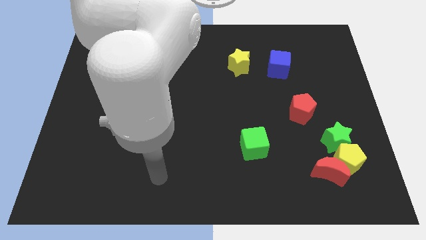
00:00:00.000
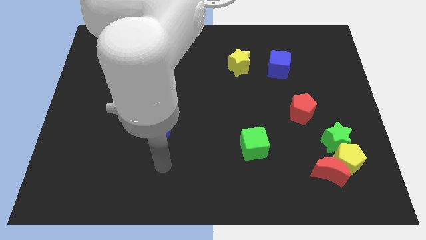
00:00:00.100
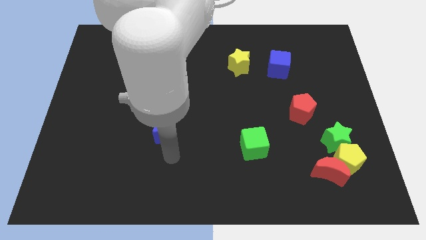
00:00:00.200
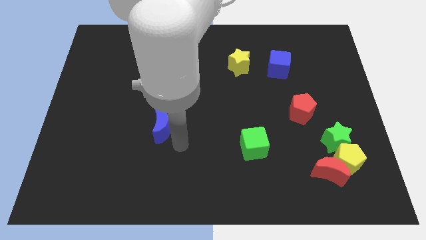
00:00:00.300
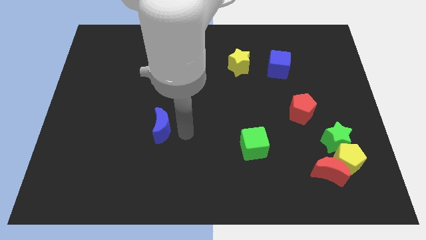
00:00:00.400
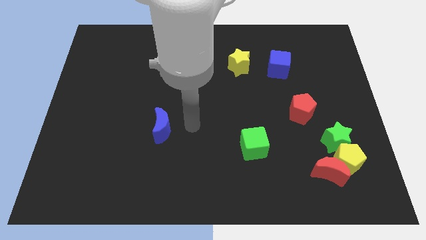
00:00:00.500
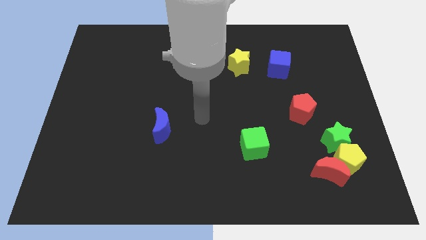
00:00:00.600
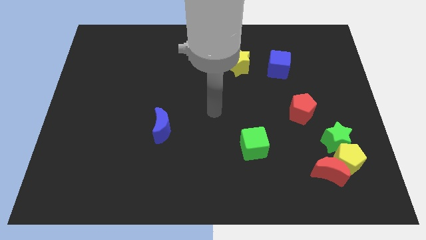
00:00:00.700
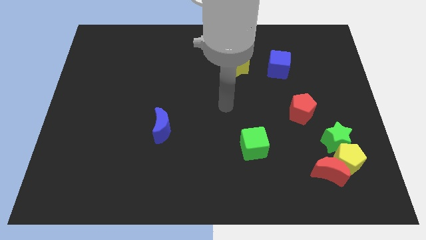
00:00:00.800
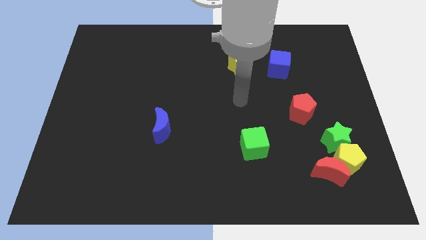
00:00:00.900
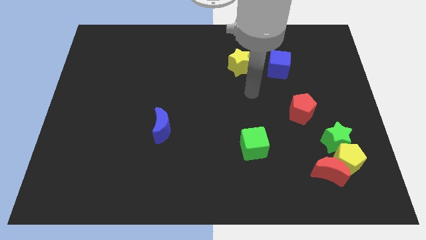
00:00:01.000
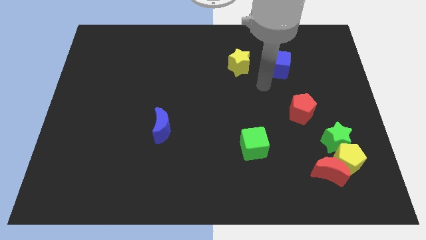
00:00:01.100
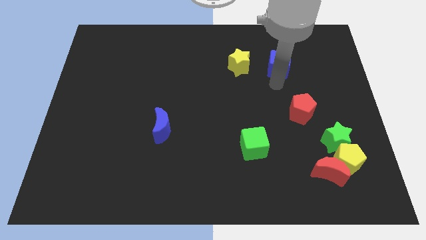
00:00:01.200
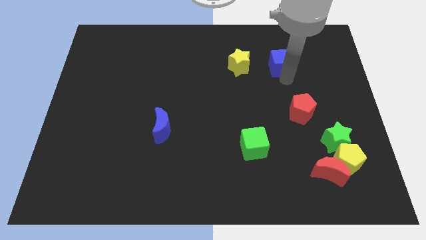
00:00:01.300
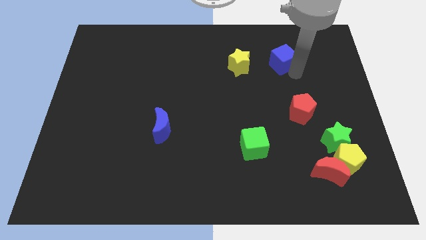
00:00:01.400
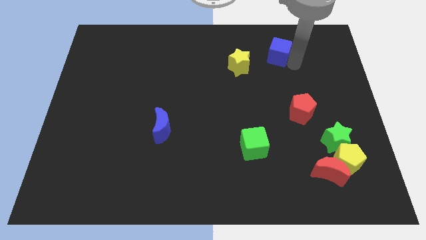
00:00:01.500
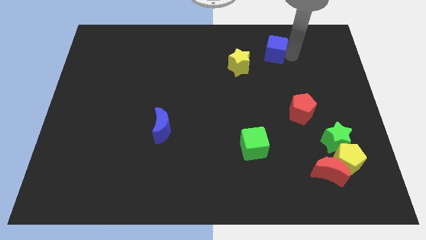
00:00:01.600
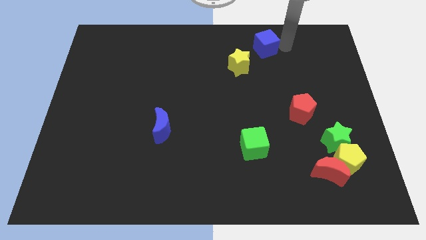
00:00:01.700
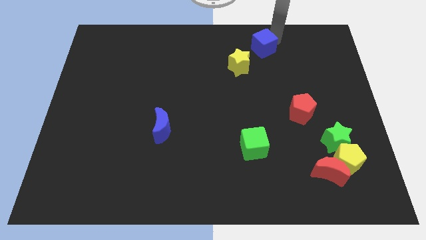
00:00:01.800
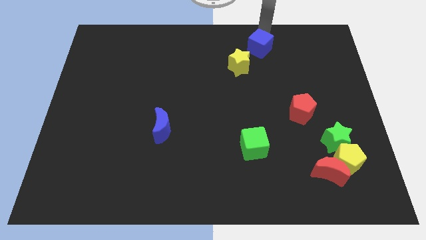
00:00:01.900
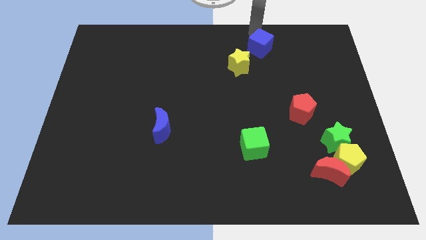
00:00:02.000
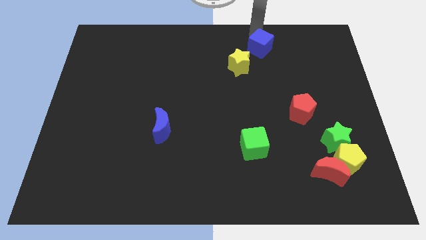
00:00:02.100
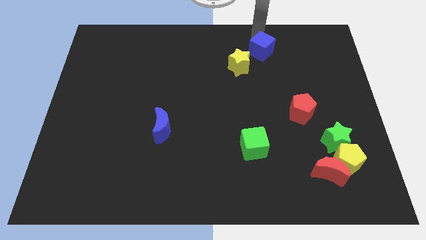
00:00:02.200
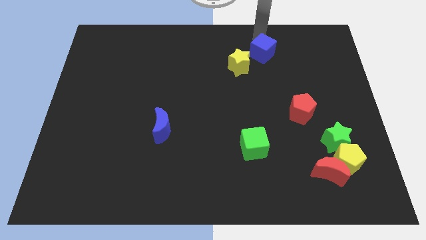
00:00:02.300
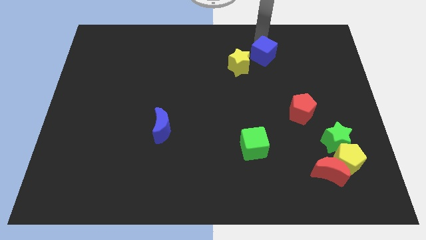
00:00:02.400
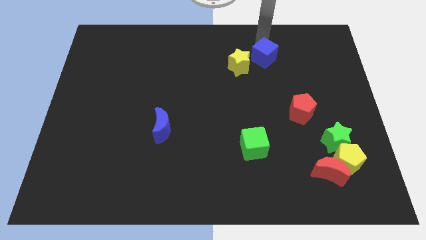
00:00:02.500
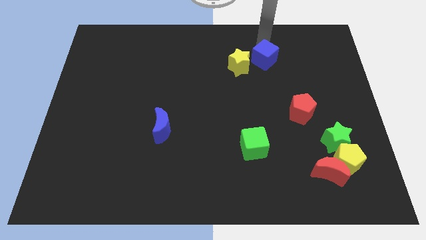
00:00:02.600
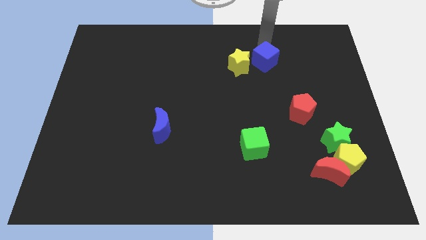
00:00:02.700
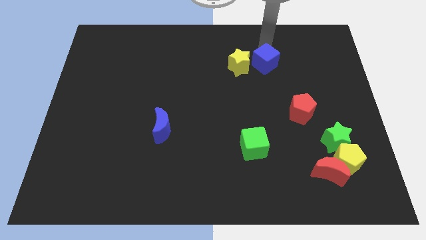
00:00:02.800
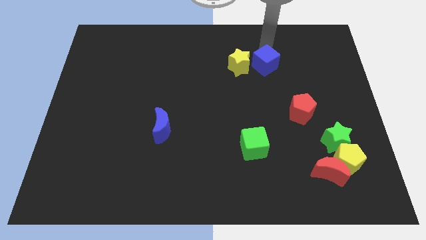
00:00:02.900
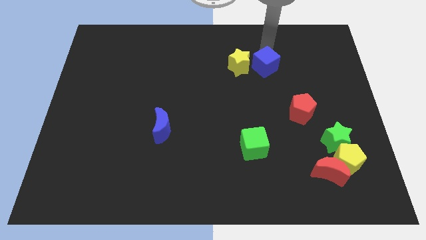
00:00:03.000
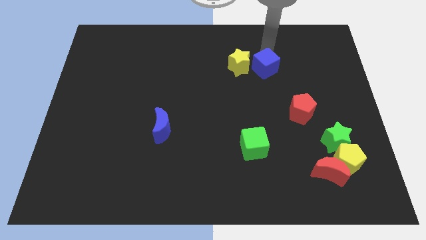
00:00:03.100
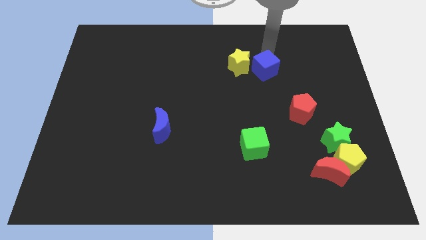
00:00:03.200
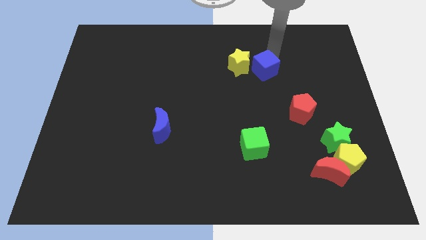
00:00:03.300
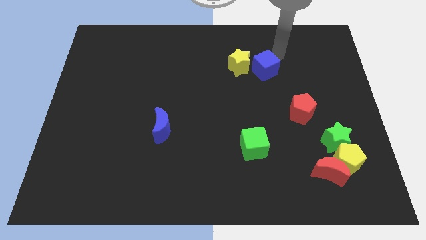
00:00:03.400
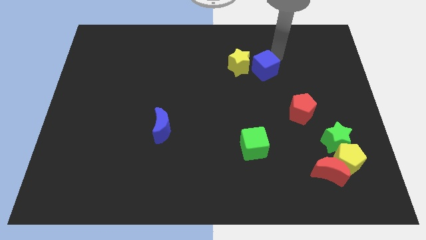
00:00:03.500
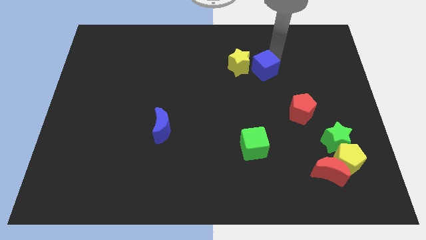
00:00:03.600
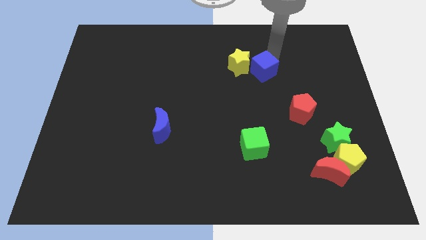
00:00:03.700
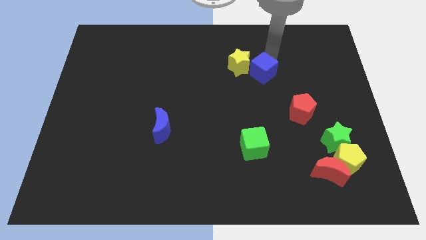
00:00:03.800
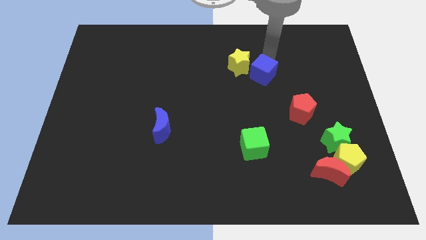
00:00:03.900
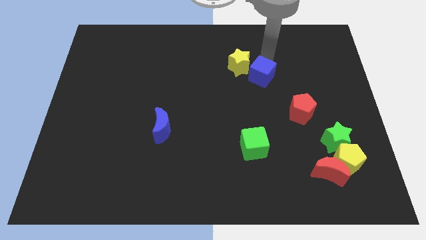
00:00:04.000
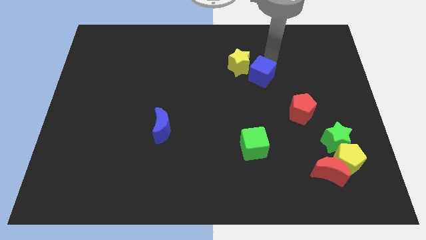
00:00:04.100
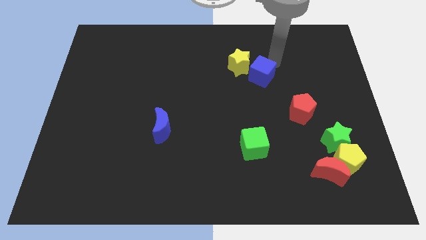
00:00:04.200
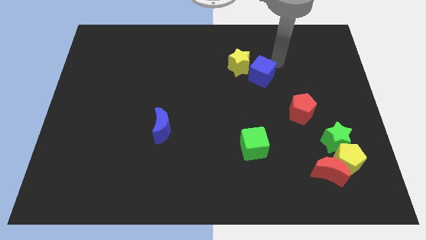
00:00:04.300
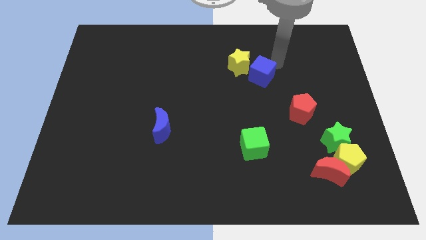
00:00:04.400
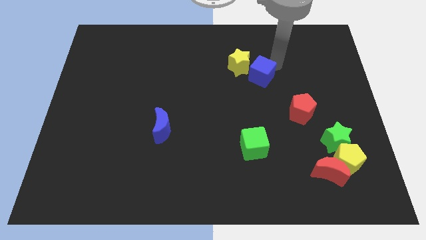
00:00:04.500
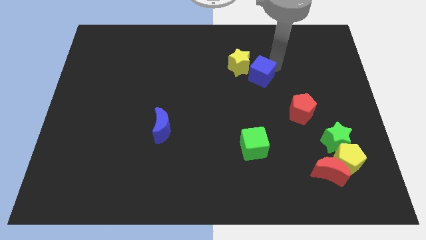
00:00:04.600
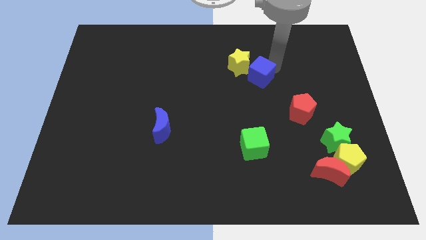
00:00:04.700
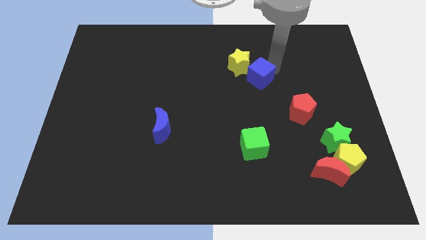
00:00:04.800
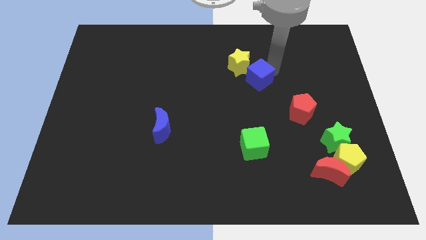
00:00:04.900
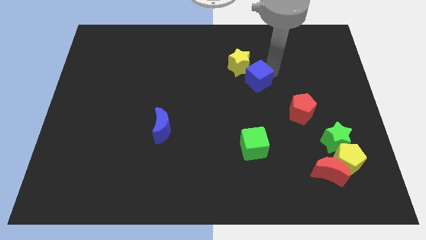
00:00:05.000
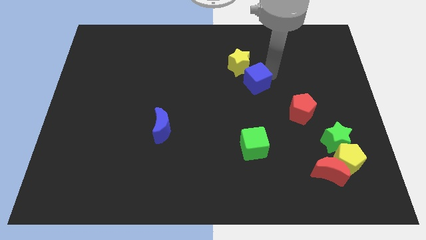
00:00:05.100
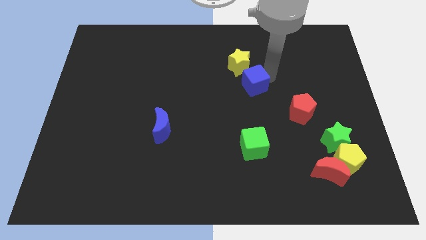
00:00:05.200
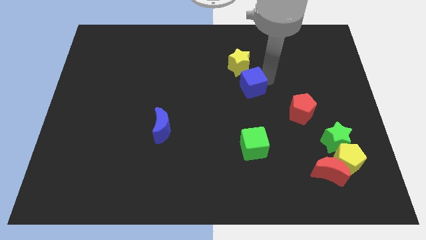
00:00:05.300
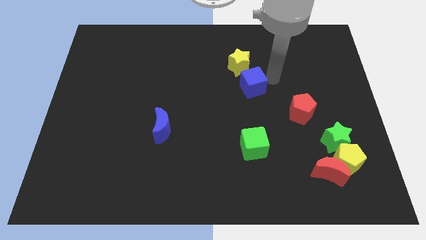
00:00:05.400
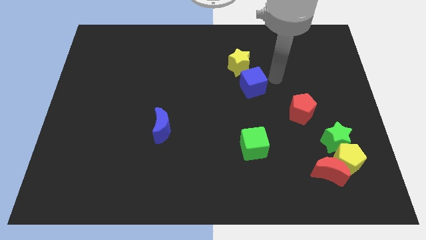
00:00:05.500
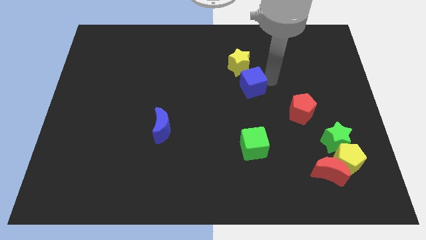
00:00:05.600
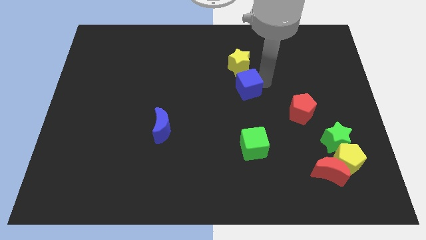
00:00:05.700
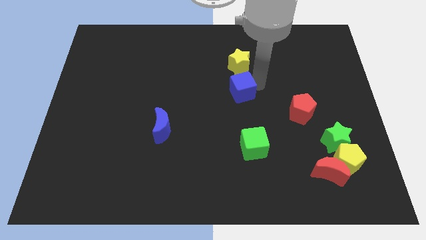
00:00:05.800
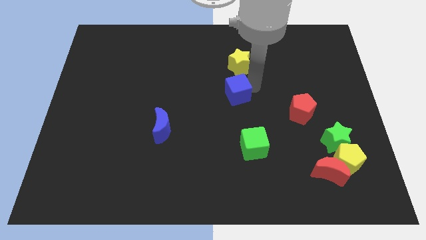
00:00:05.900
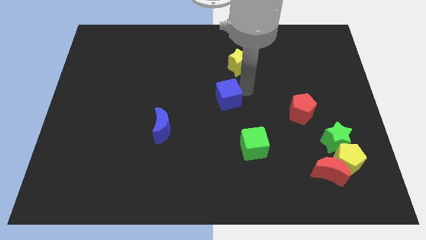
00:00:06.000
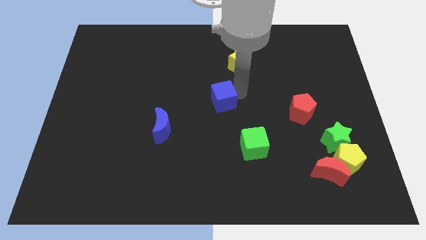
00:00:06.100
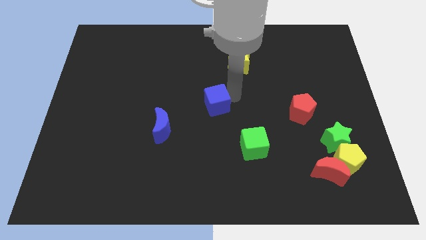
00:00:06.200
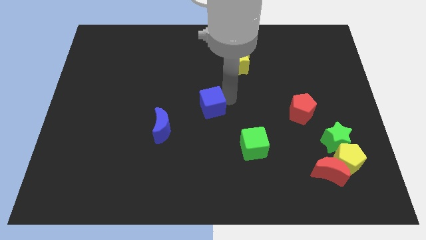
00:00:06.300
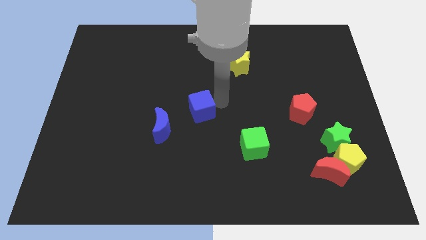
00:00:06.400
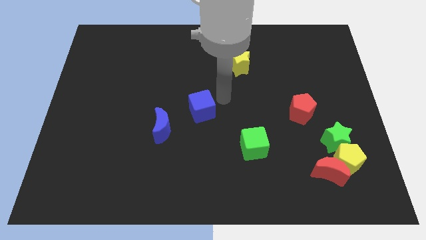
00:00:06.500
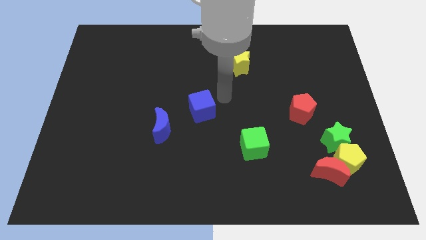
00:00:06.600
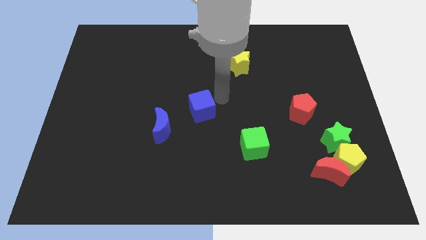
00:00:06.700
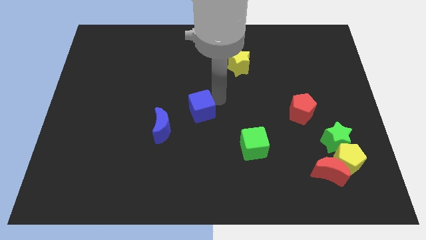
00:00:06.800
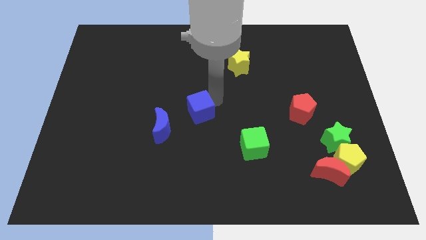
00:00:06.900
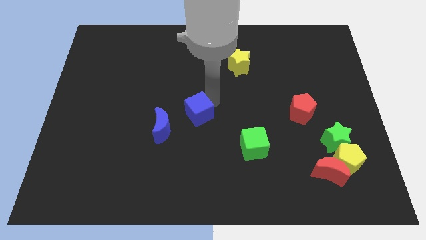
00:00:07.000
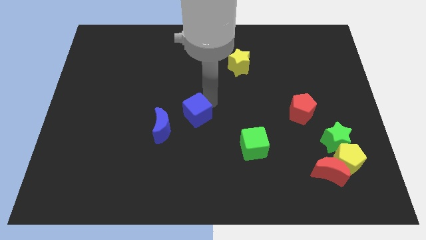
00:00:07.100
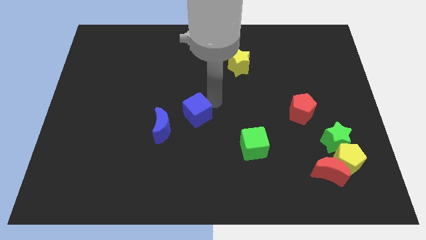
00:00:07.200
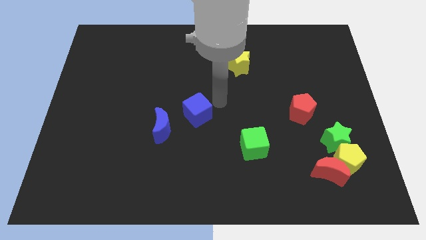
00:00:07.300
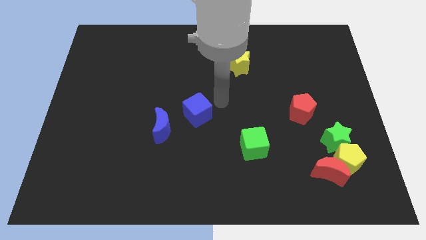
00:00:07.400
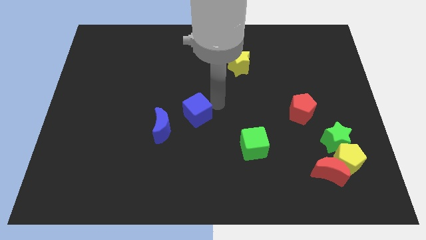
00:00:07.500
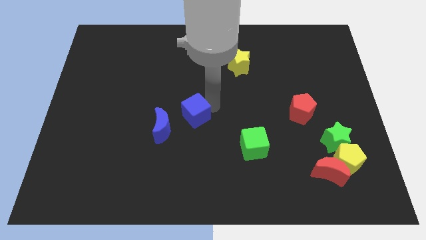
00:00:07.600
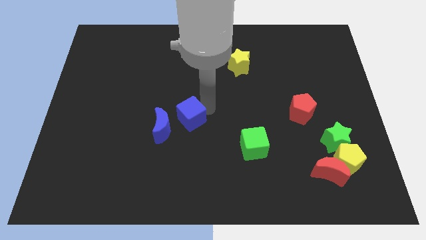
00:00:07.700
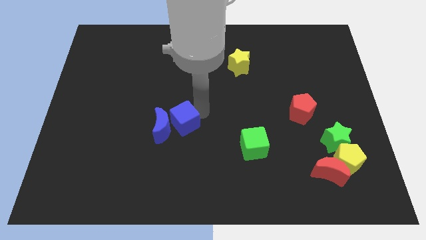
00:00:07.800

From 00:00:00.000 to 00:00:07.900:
push the blue cube close to the blue moon
